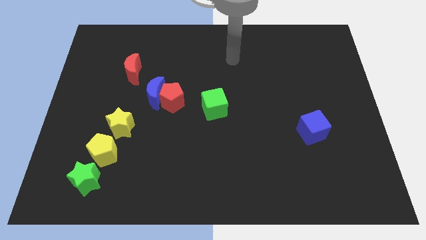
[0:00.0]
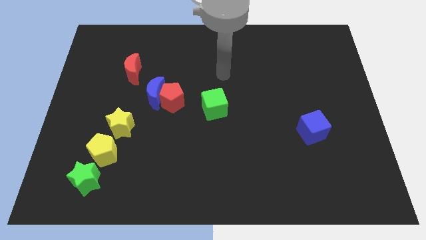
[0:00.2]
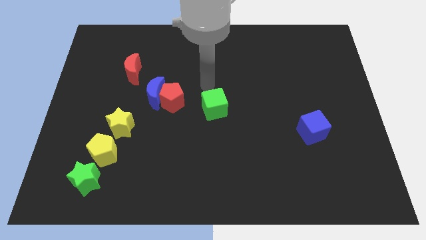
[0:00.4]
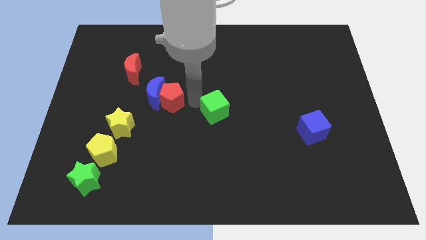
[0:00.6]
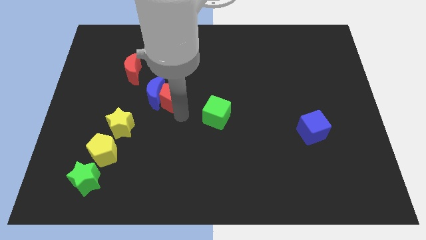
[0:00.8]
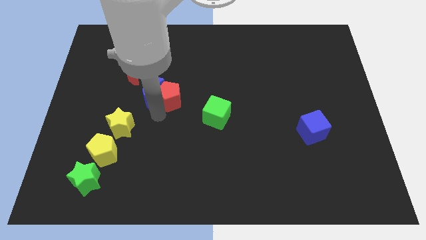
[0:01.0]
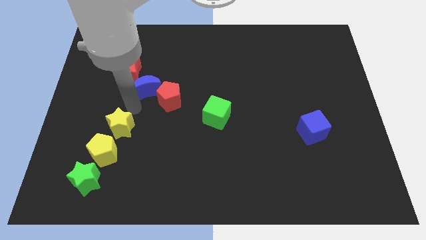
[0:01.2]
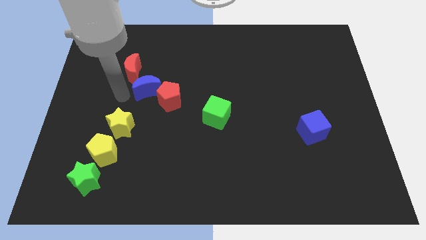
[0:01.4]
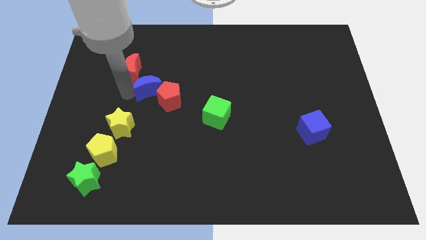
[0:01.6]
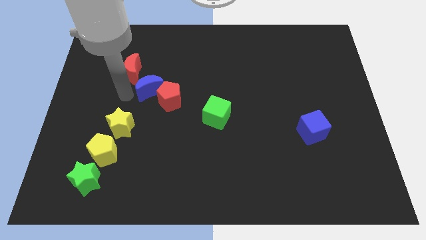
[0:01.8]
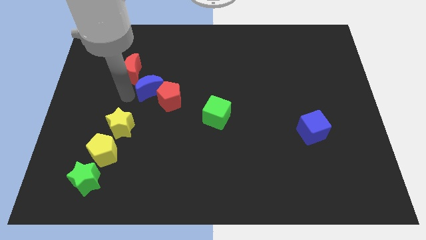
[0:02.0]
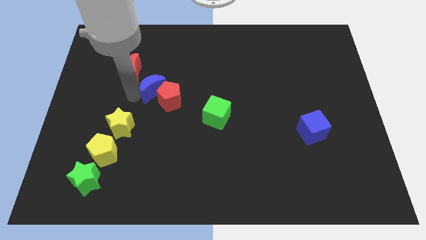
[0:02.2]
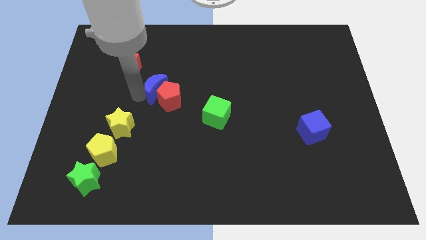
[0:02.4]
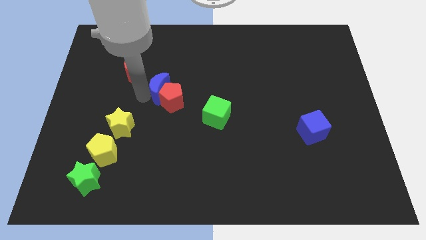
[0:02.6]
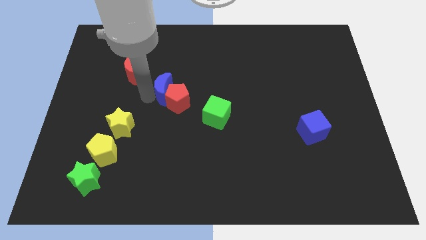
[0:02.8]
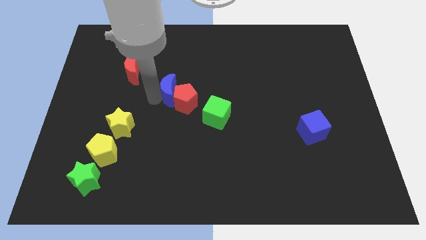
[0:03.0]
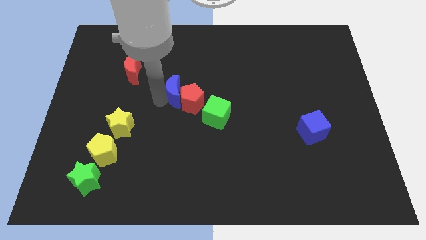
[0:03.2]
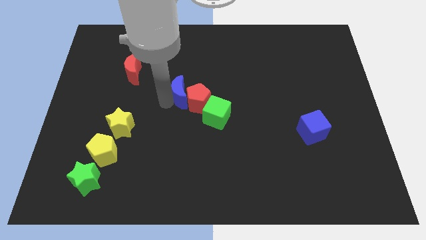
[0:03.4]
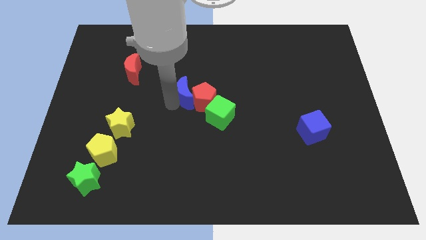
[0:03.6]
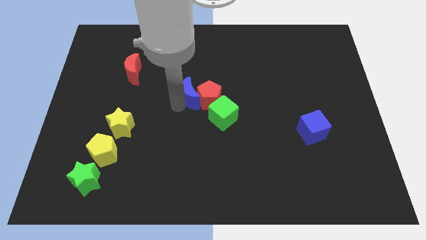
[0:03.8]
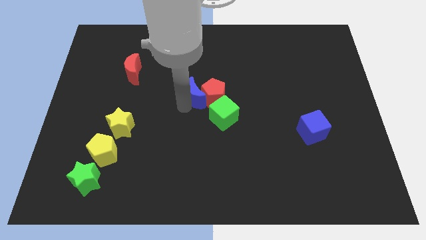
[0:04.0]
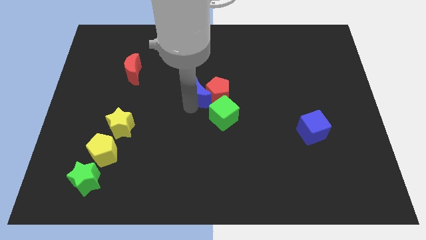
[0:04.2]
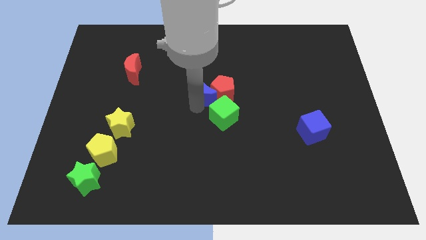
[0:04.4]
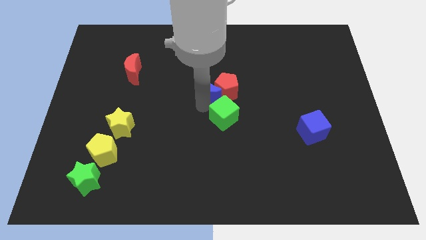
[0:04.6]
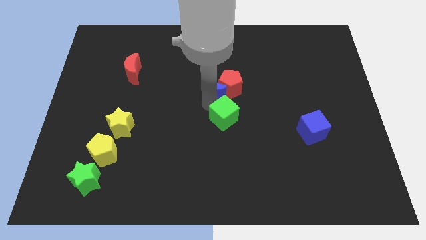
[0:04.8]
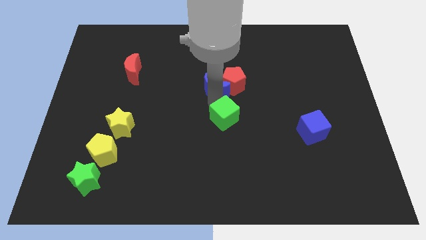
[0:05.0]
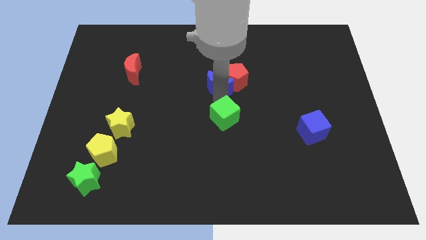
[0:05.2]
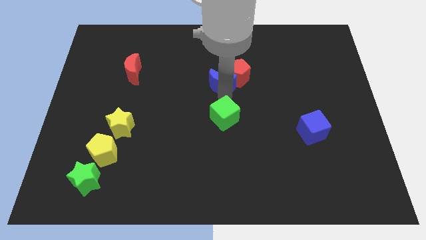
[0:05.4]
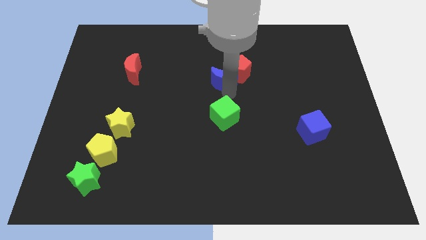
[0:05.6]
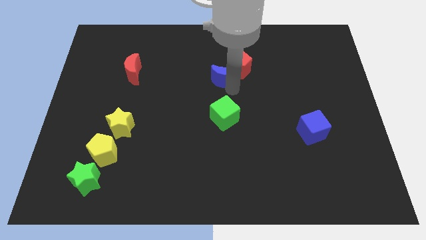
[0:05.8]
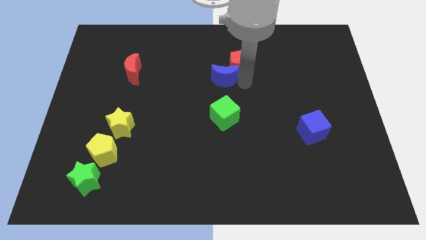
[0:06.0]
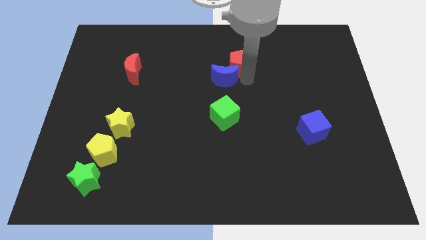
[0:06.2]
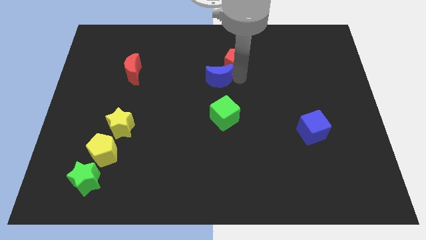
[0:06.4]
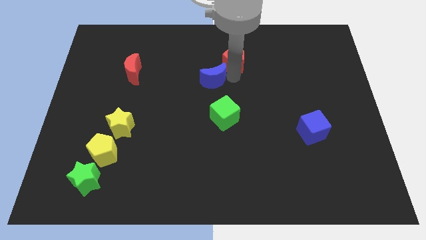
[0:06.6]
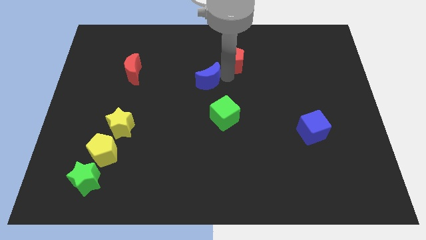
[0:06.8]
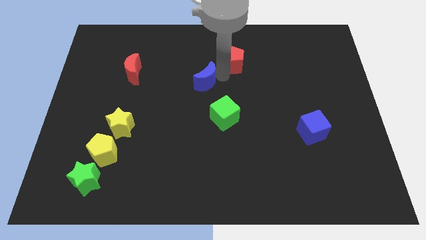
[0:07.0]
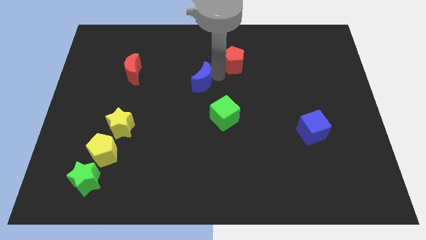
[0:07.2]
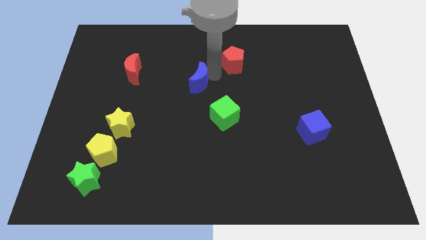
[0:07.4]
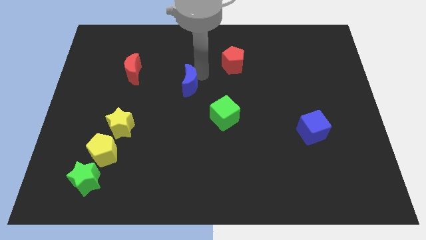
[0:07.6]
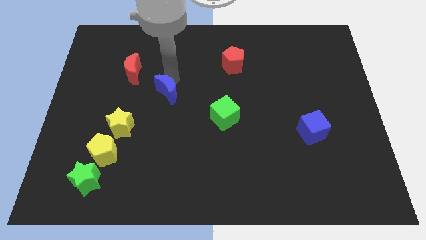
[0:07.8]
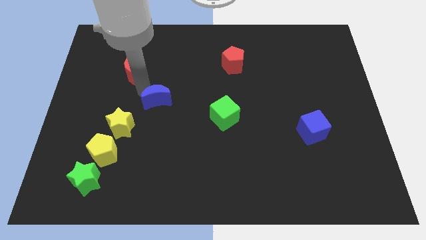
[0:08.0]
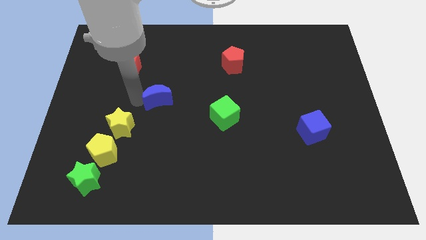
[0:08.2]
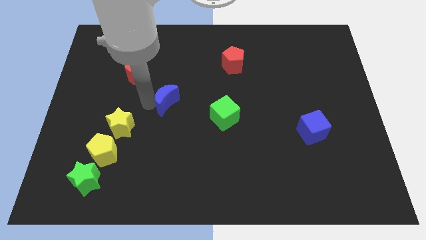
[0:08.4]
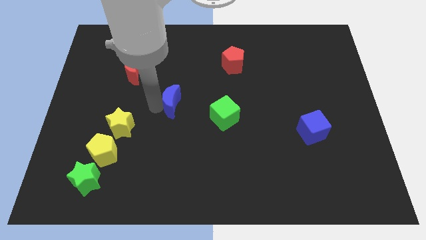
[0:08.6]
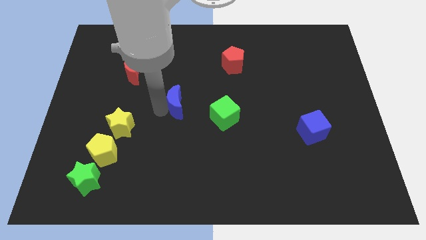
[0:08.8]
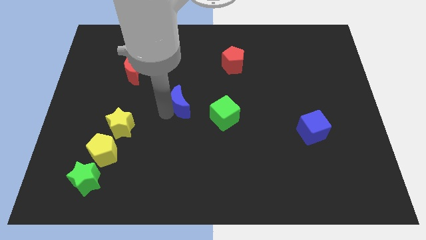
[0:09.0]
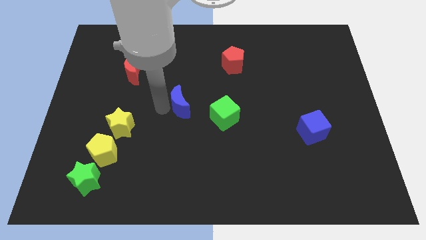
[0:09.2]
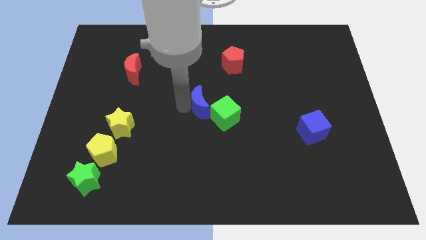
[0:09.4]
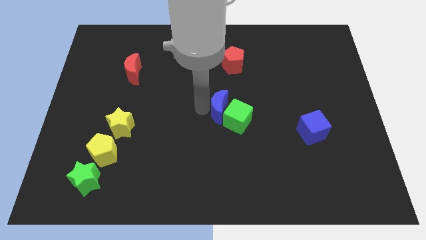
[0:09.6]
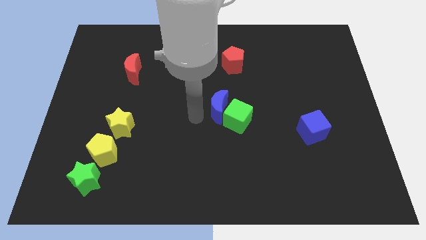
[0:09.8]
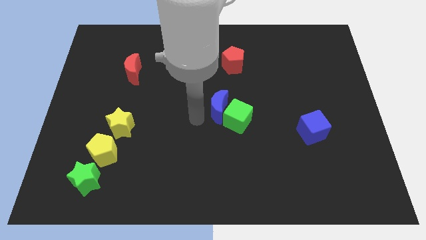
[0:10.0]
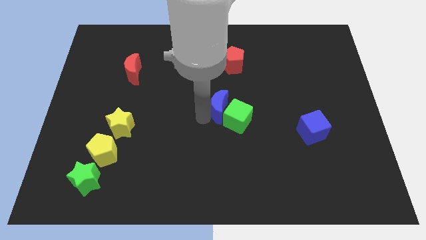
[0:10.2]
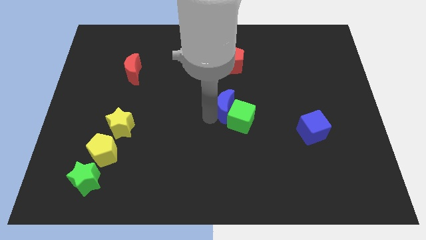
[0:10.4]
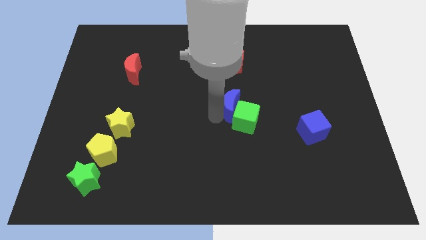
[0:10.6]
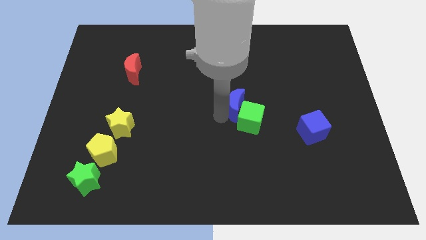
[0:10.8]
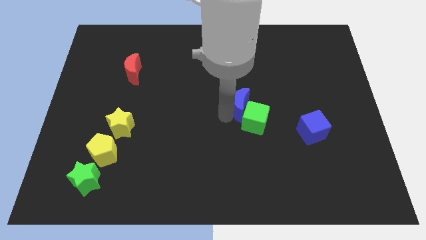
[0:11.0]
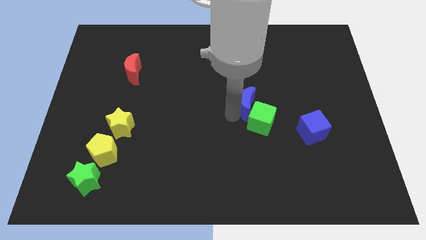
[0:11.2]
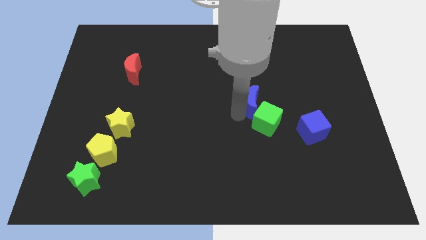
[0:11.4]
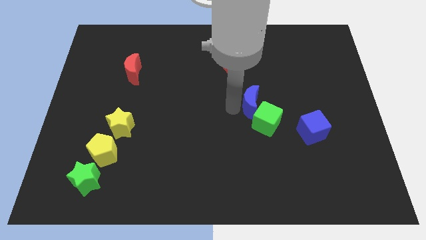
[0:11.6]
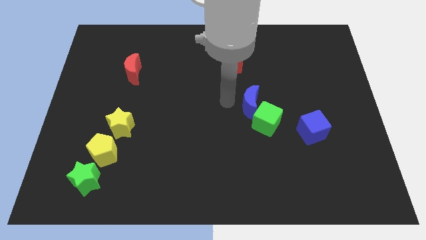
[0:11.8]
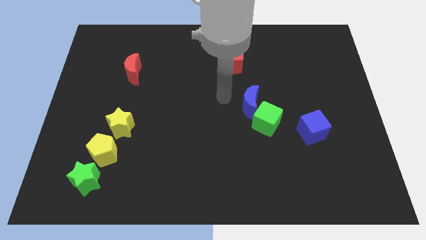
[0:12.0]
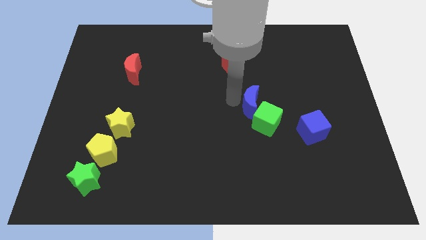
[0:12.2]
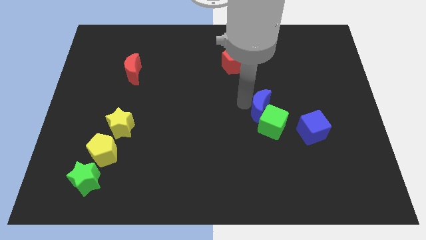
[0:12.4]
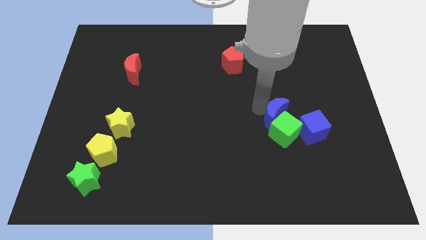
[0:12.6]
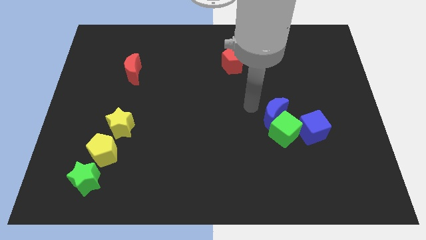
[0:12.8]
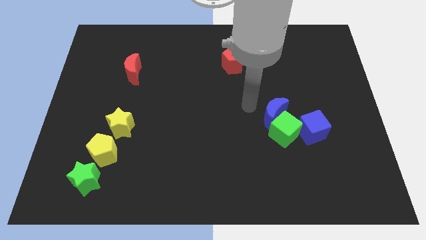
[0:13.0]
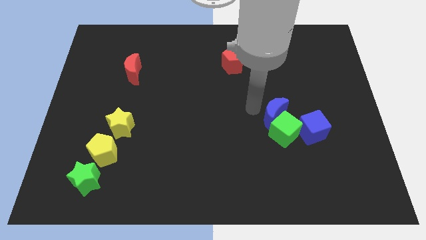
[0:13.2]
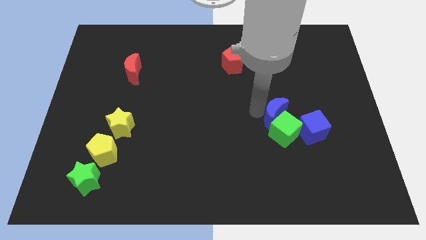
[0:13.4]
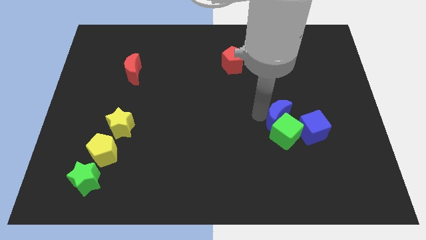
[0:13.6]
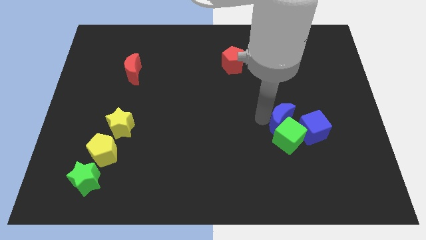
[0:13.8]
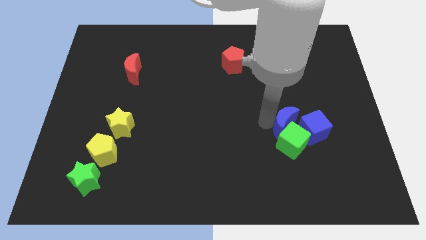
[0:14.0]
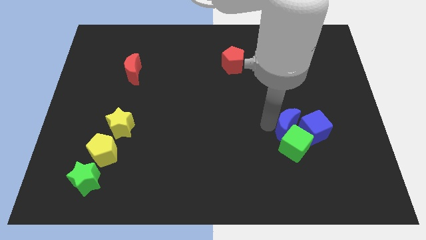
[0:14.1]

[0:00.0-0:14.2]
put the blue moon towards the blue cube
